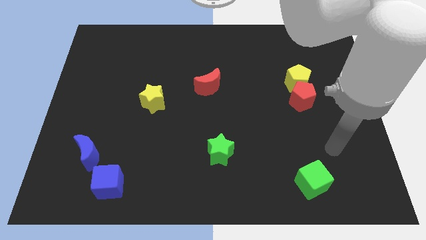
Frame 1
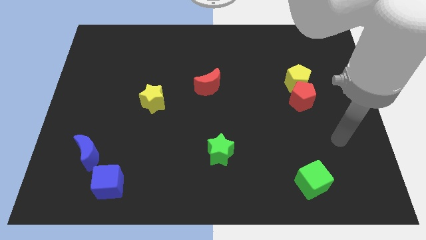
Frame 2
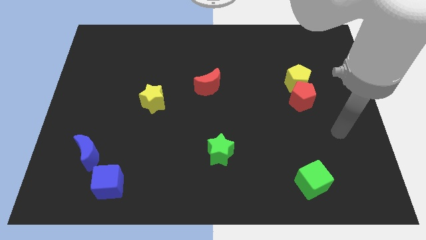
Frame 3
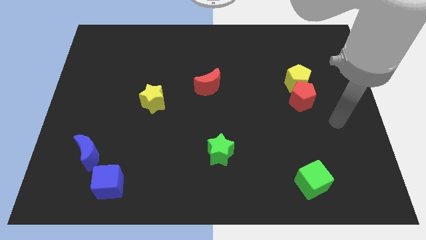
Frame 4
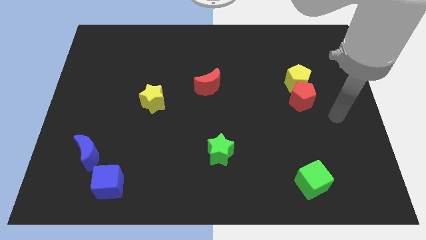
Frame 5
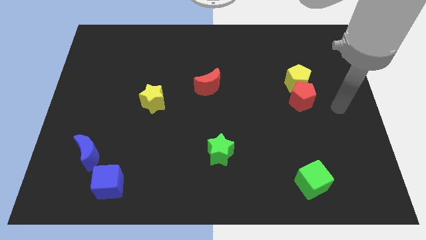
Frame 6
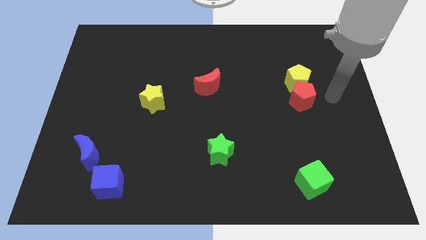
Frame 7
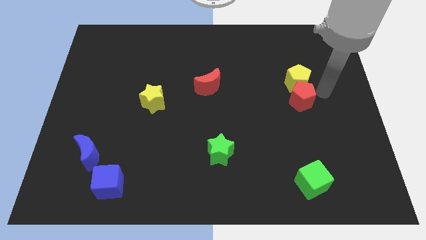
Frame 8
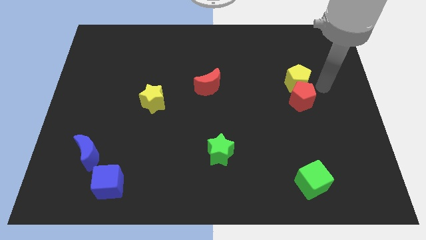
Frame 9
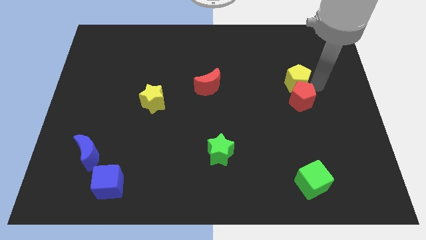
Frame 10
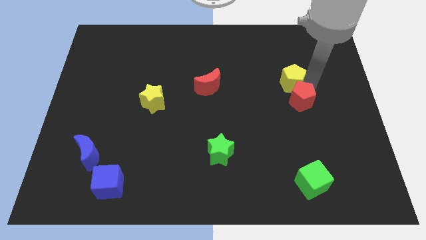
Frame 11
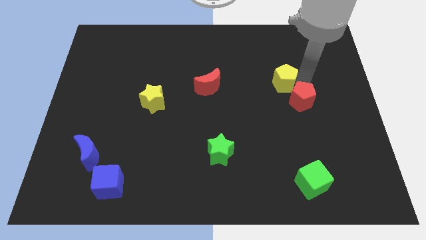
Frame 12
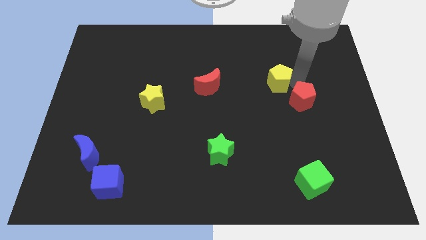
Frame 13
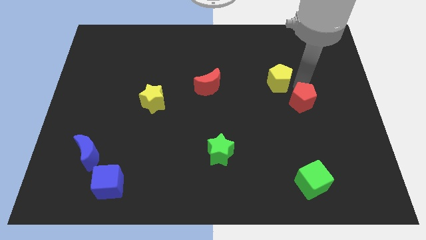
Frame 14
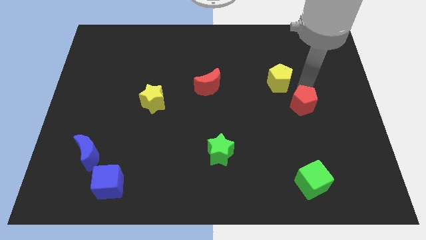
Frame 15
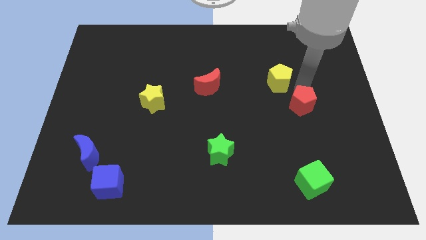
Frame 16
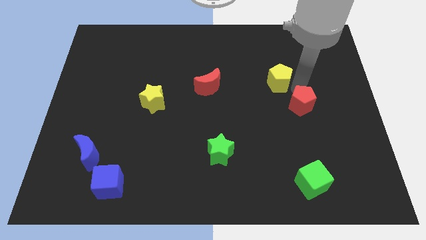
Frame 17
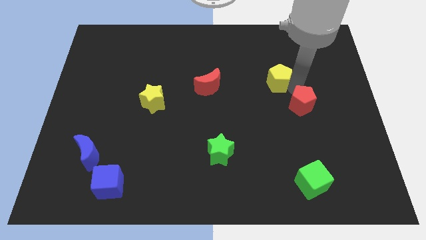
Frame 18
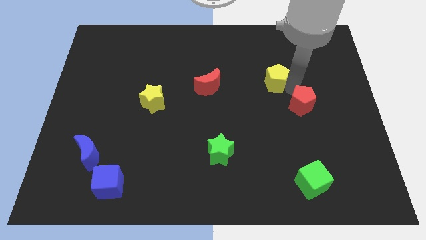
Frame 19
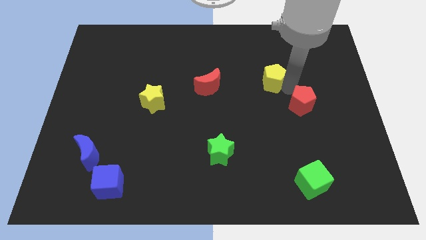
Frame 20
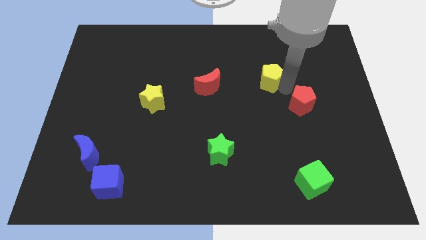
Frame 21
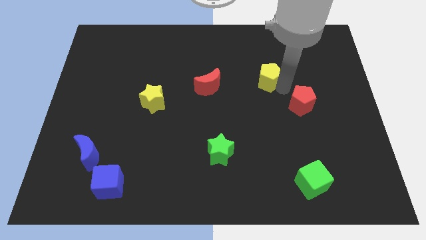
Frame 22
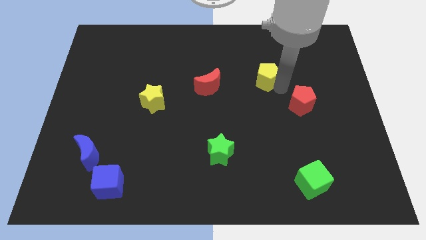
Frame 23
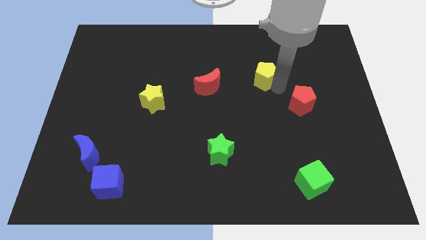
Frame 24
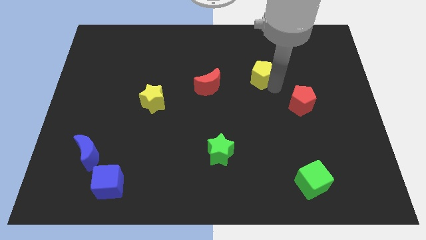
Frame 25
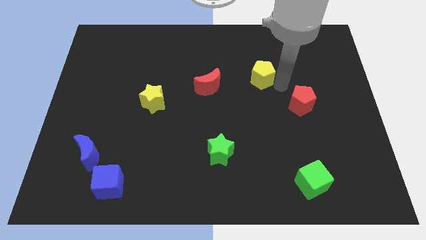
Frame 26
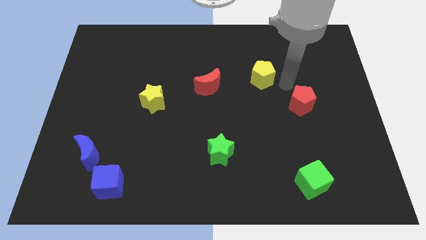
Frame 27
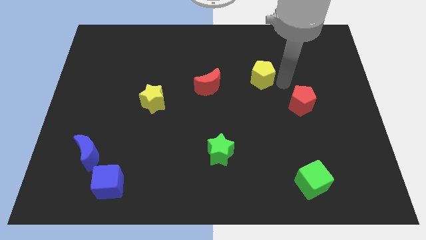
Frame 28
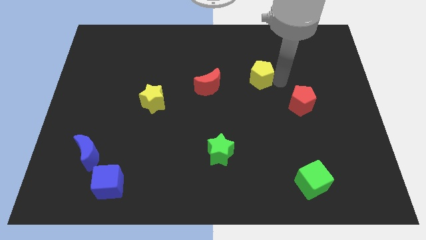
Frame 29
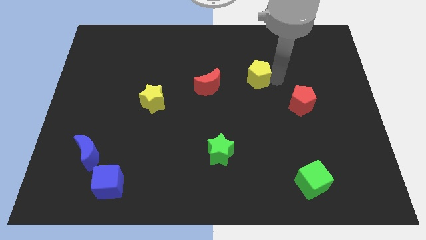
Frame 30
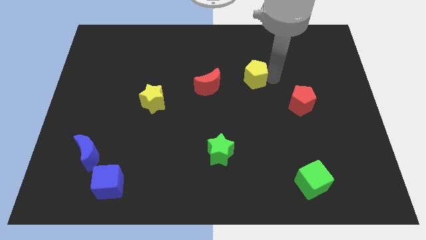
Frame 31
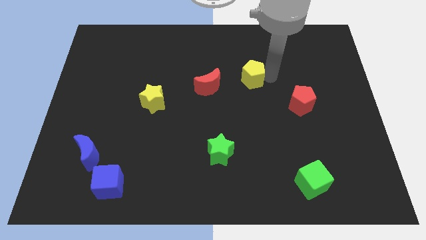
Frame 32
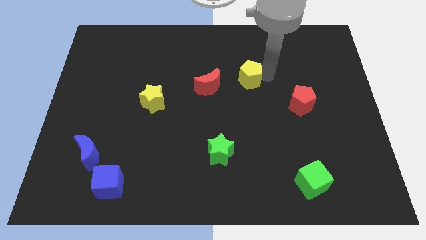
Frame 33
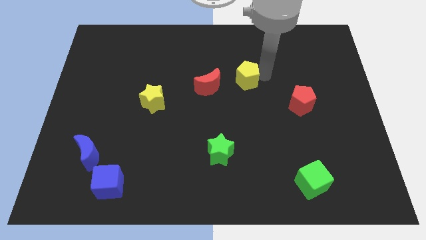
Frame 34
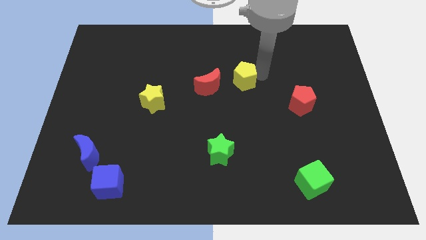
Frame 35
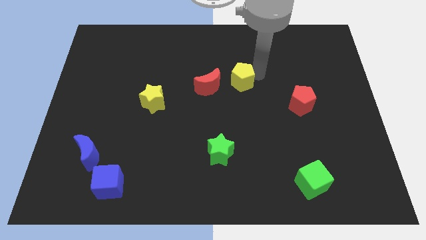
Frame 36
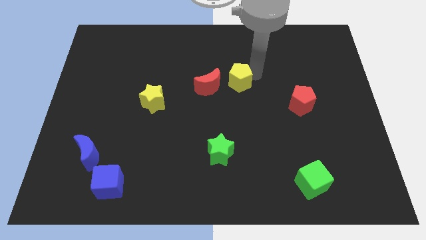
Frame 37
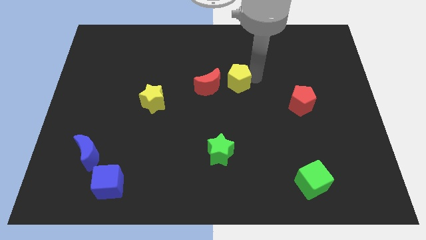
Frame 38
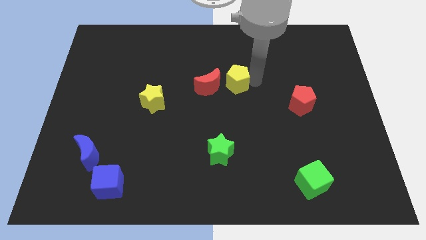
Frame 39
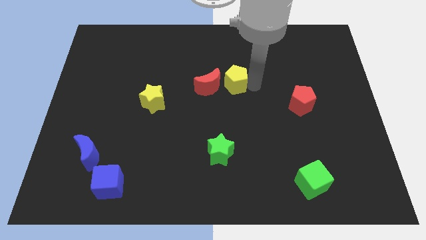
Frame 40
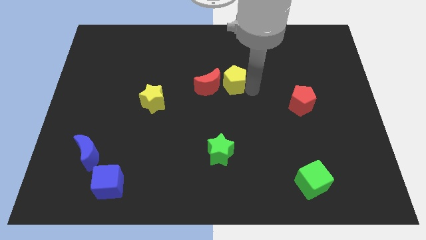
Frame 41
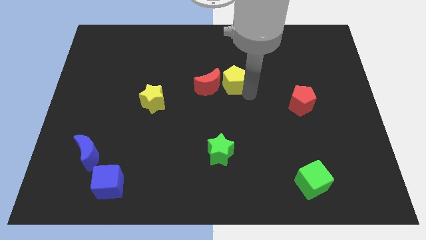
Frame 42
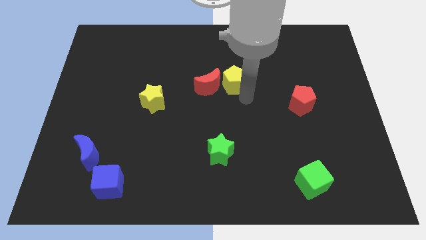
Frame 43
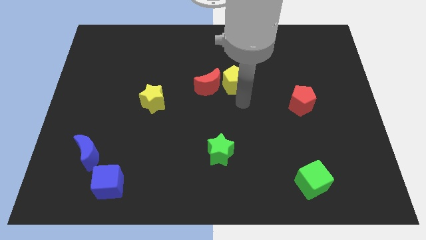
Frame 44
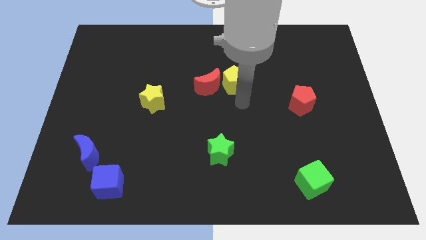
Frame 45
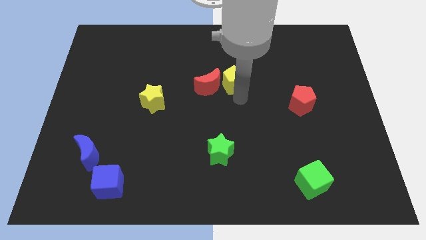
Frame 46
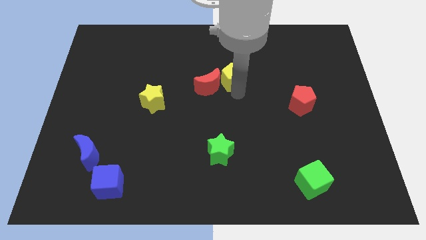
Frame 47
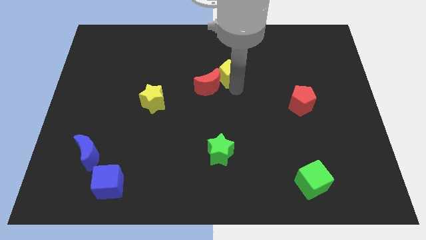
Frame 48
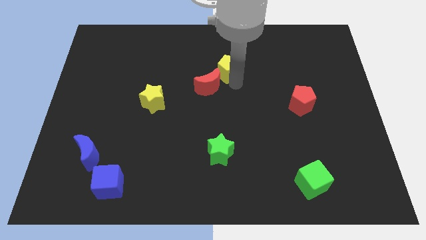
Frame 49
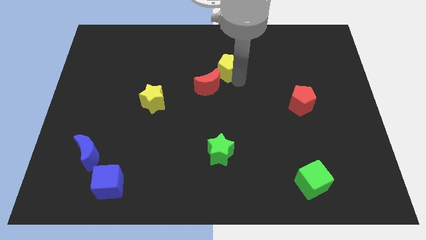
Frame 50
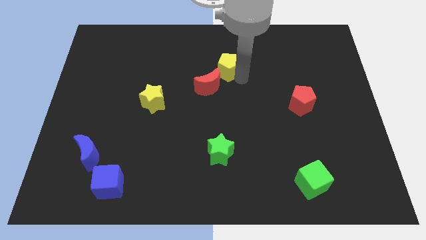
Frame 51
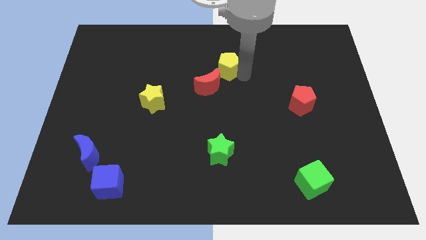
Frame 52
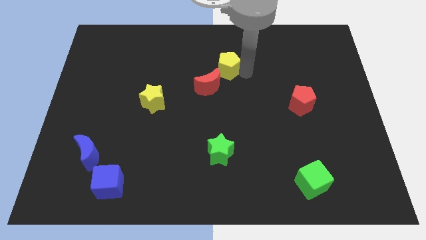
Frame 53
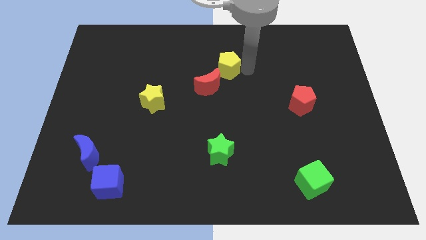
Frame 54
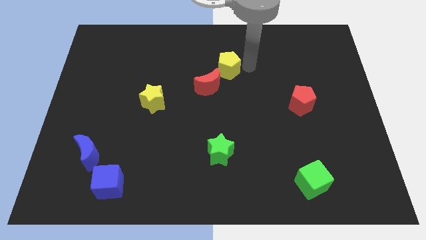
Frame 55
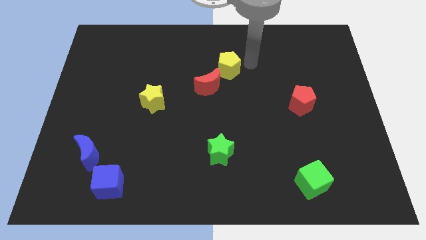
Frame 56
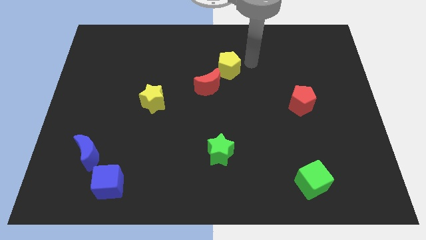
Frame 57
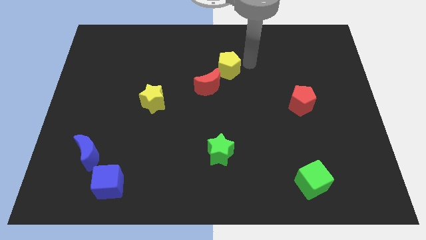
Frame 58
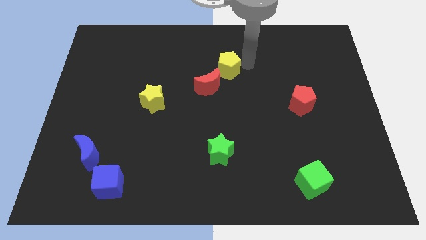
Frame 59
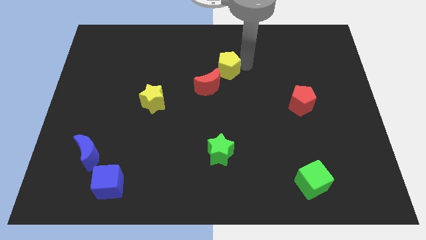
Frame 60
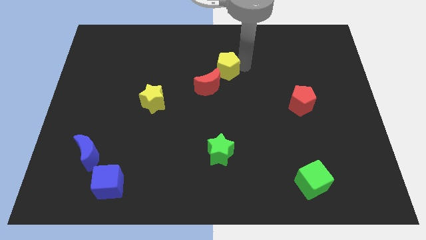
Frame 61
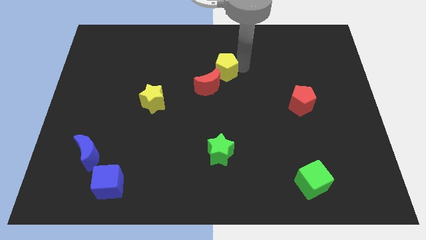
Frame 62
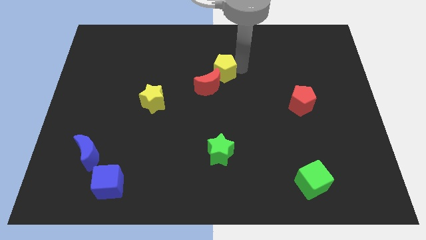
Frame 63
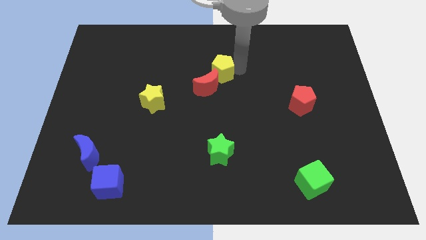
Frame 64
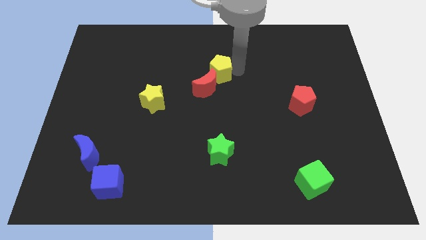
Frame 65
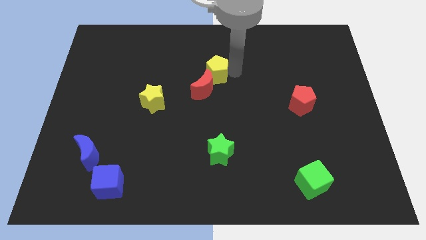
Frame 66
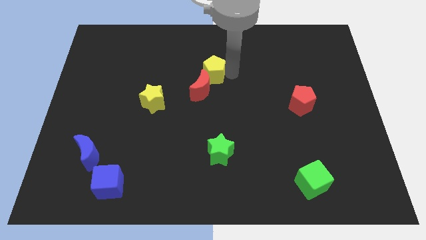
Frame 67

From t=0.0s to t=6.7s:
move the yellow pentagon to the left

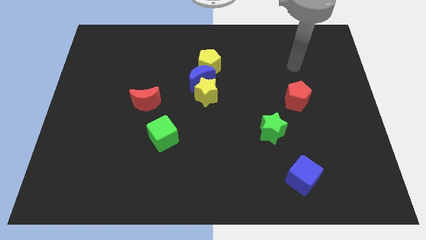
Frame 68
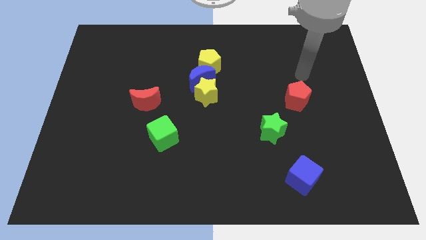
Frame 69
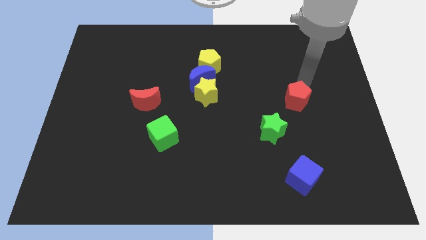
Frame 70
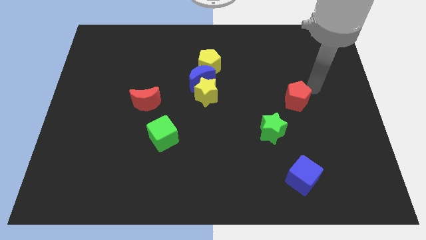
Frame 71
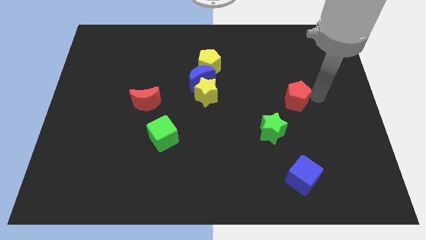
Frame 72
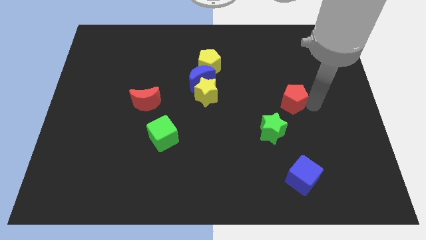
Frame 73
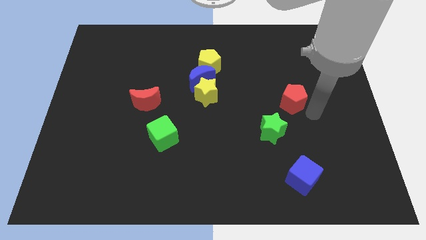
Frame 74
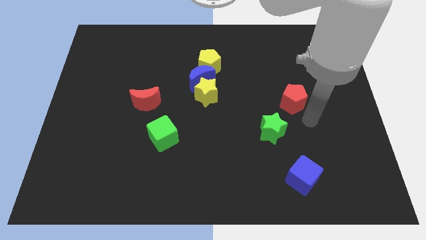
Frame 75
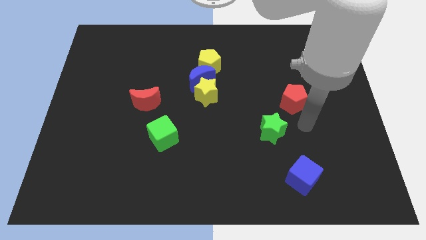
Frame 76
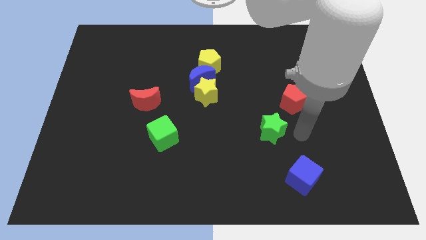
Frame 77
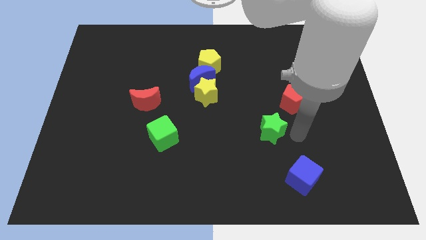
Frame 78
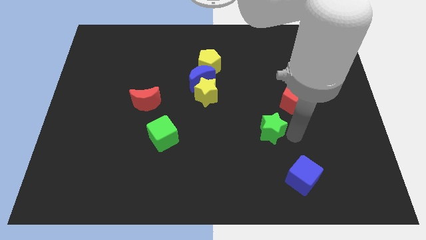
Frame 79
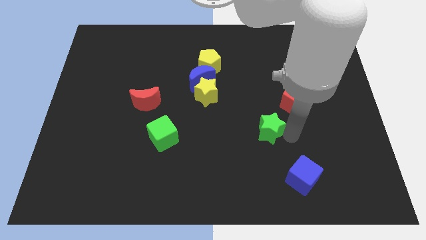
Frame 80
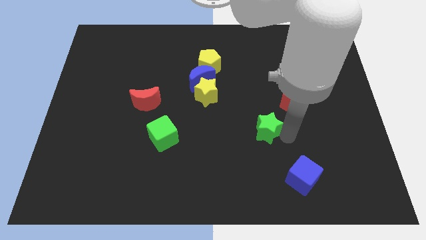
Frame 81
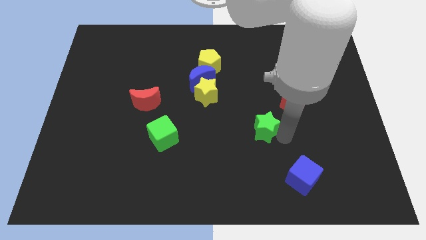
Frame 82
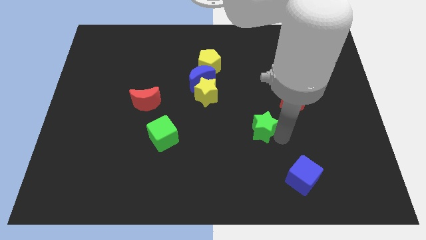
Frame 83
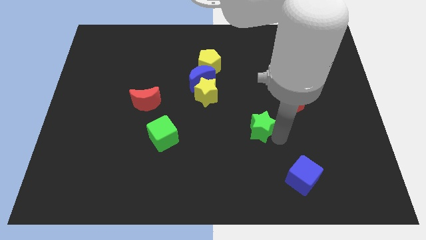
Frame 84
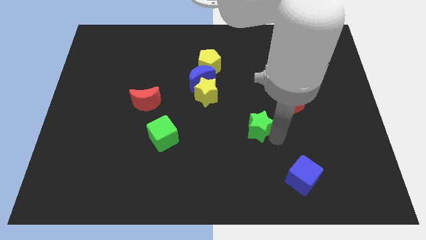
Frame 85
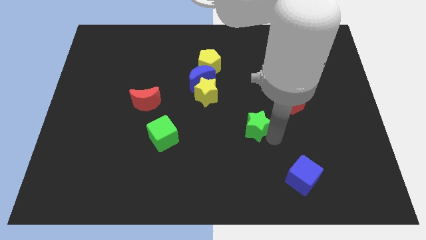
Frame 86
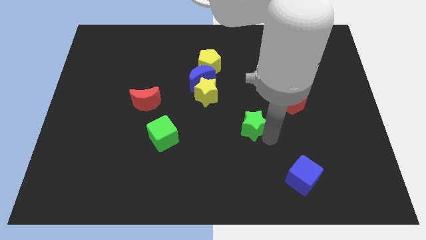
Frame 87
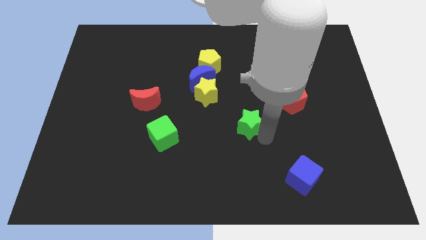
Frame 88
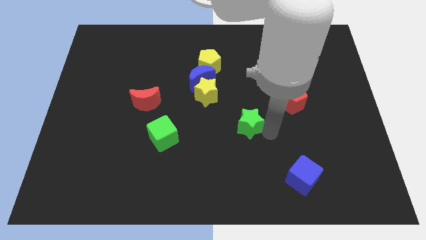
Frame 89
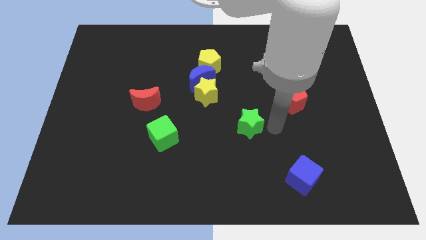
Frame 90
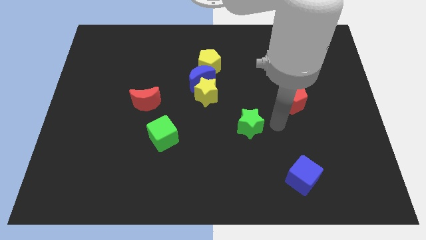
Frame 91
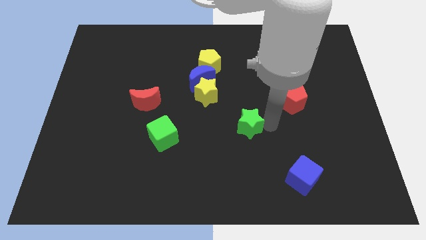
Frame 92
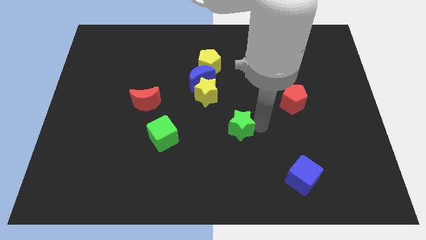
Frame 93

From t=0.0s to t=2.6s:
move the green star a little left
